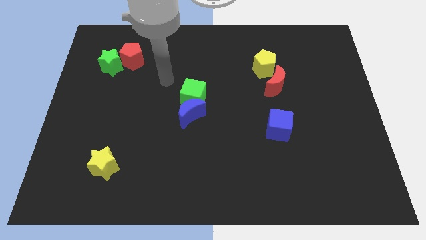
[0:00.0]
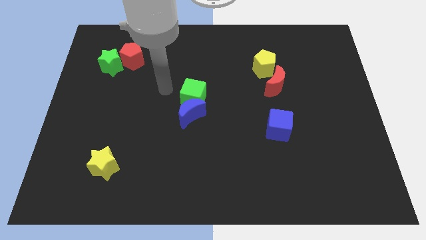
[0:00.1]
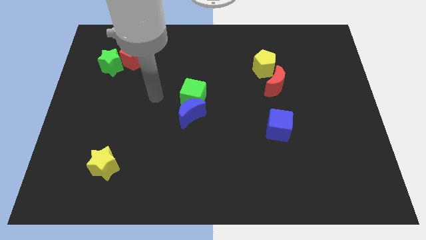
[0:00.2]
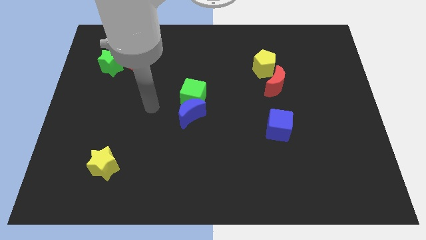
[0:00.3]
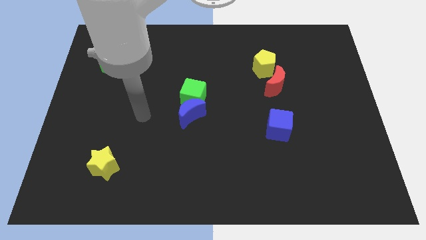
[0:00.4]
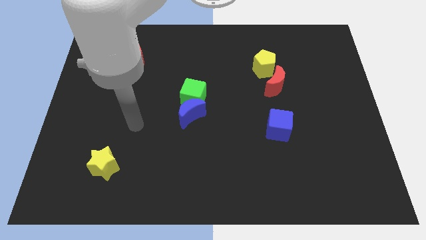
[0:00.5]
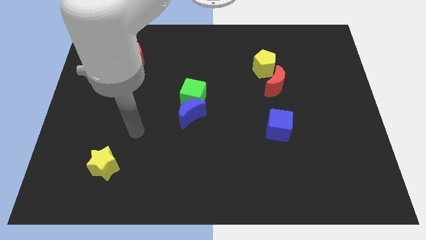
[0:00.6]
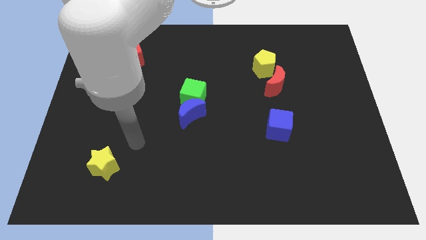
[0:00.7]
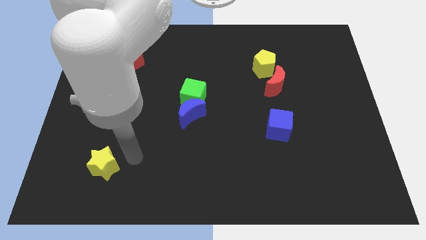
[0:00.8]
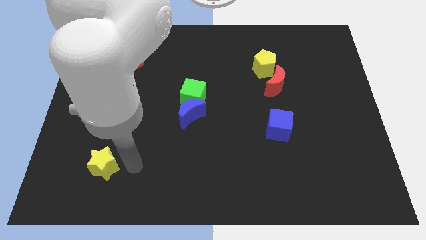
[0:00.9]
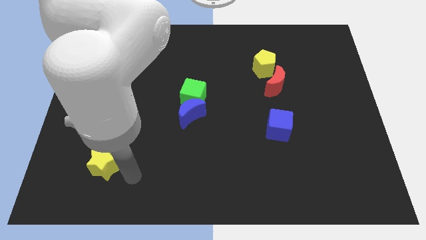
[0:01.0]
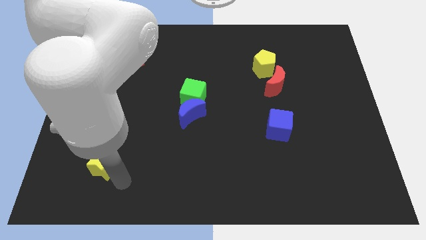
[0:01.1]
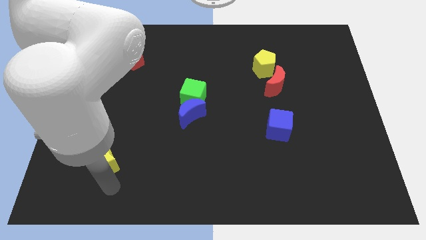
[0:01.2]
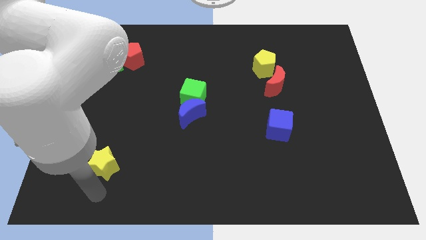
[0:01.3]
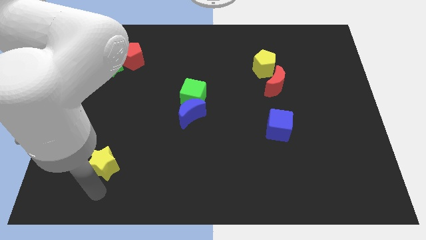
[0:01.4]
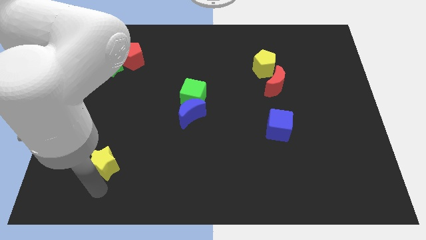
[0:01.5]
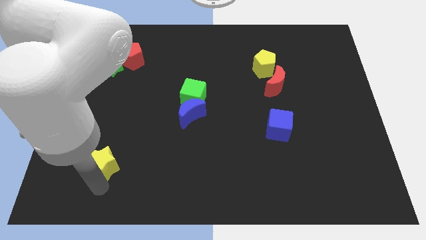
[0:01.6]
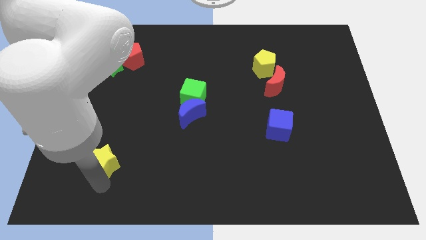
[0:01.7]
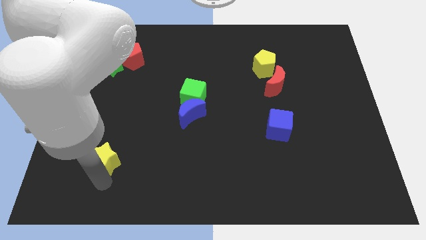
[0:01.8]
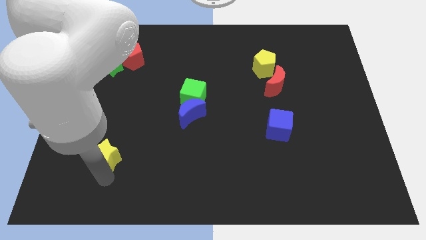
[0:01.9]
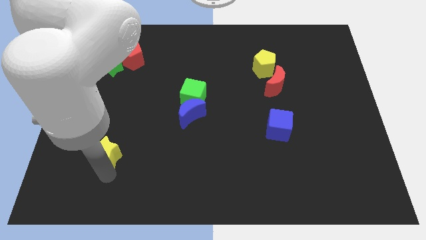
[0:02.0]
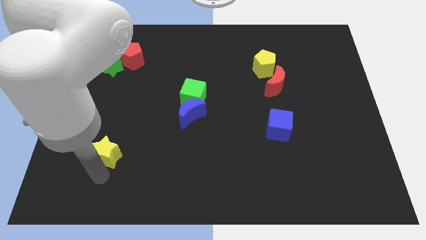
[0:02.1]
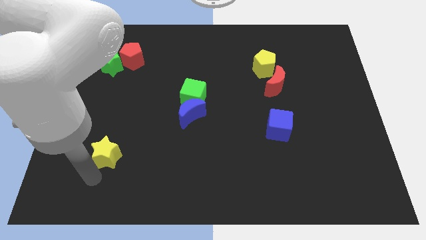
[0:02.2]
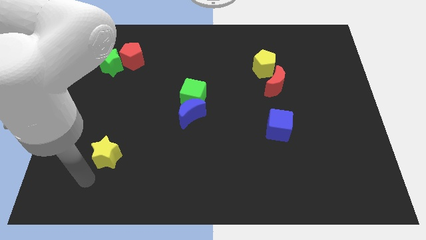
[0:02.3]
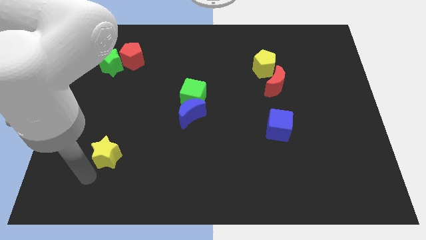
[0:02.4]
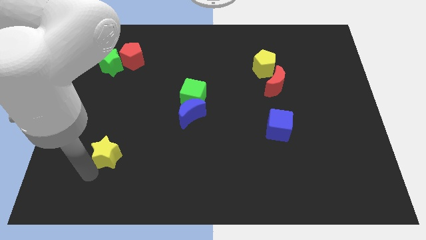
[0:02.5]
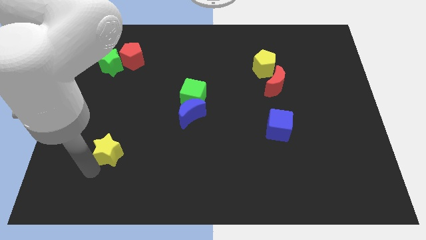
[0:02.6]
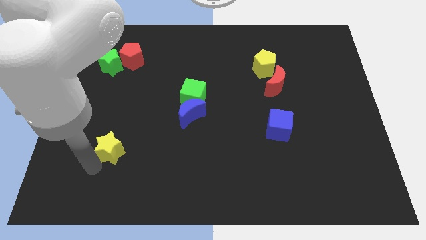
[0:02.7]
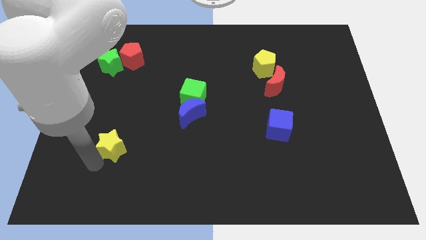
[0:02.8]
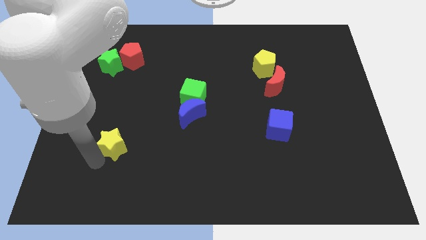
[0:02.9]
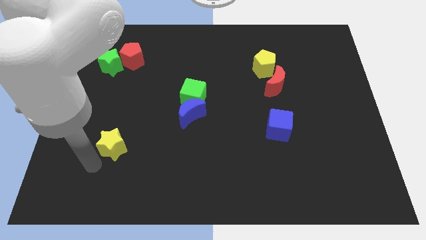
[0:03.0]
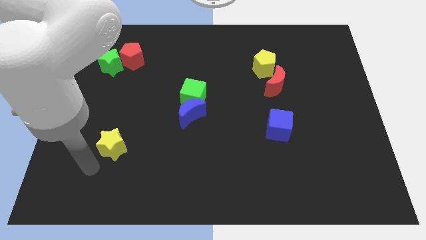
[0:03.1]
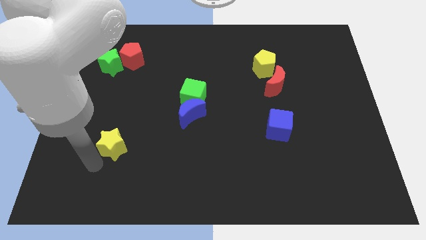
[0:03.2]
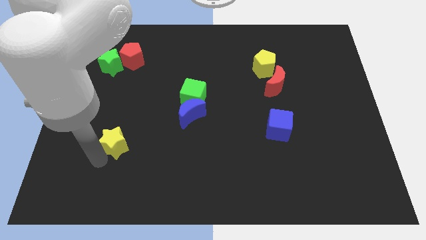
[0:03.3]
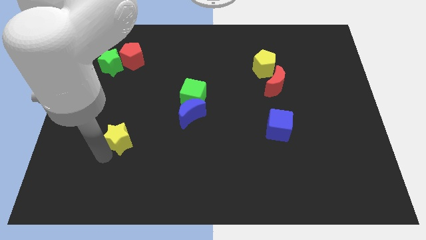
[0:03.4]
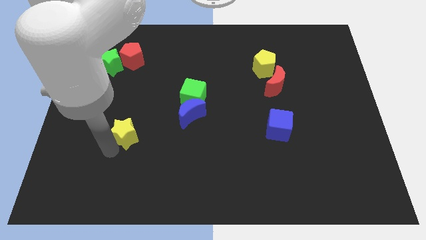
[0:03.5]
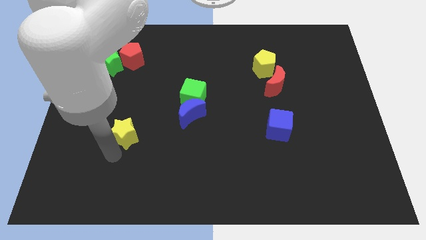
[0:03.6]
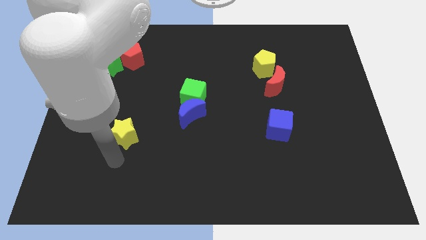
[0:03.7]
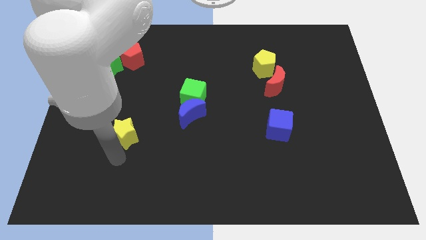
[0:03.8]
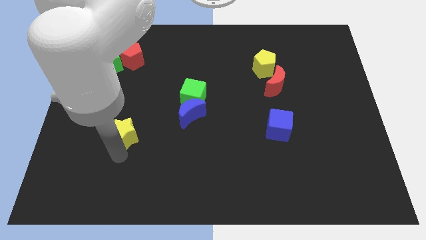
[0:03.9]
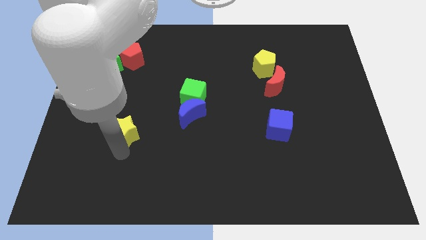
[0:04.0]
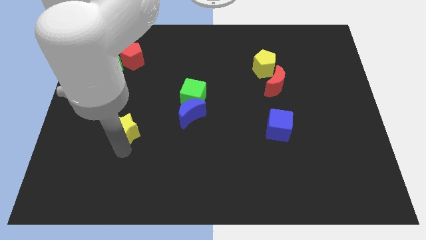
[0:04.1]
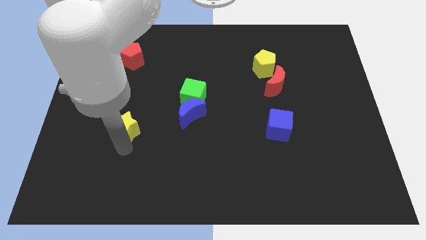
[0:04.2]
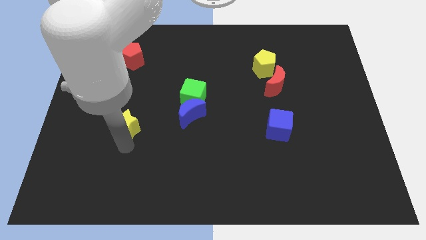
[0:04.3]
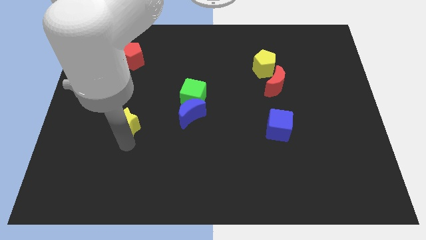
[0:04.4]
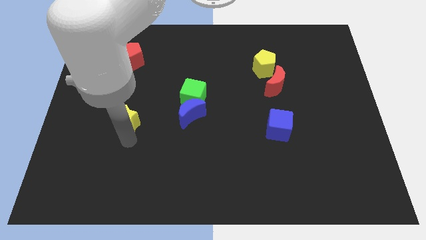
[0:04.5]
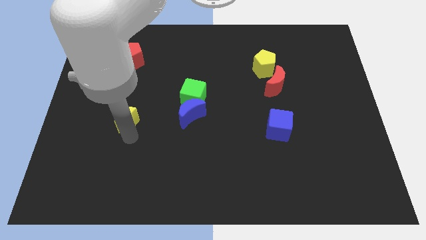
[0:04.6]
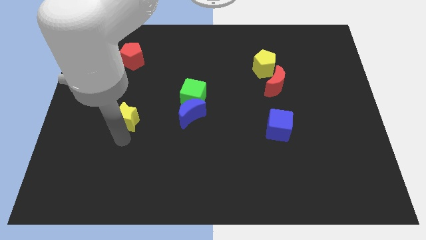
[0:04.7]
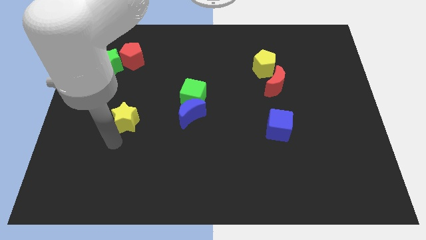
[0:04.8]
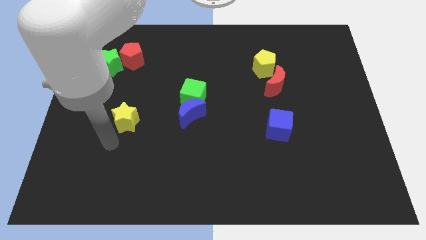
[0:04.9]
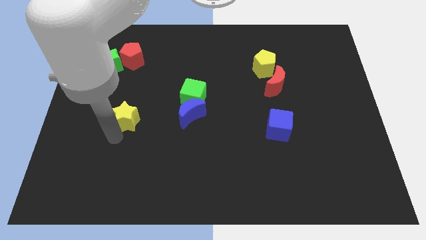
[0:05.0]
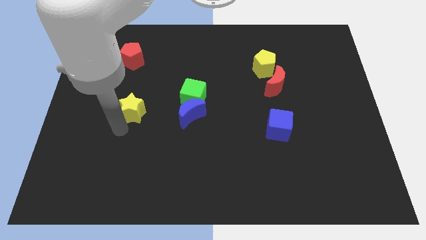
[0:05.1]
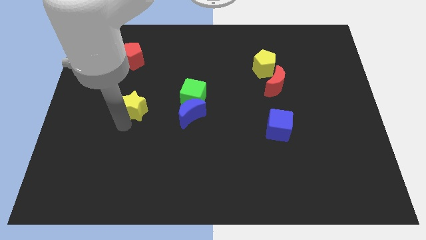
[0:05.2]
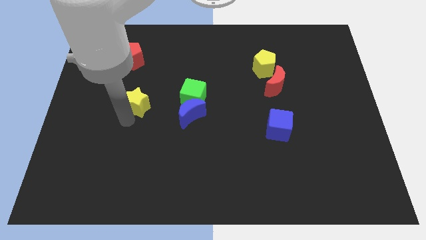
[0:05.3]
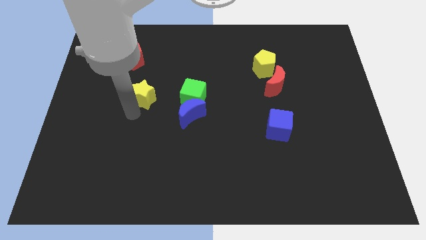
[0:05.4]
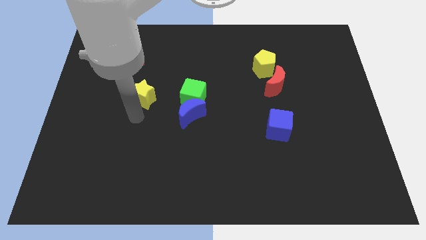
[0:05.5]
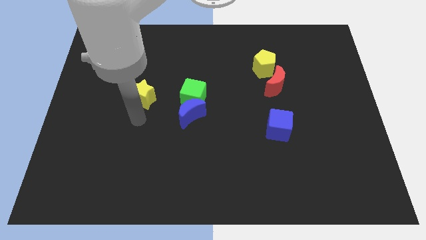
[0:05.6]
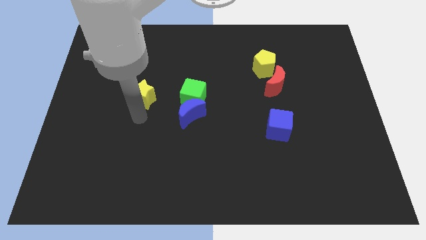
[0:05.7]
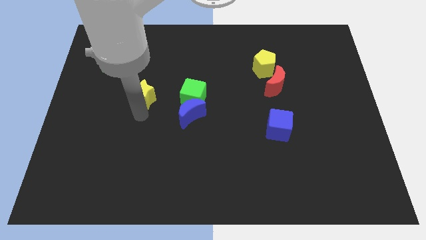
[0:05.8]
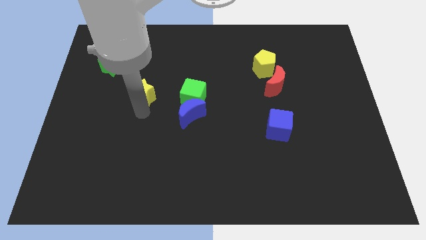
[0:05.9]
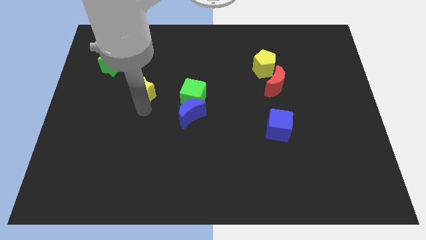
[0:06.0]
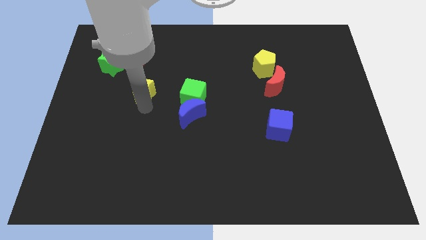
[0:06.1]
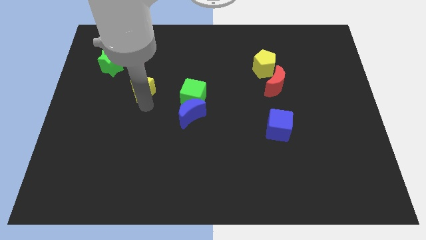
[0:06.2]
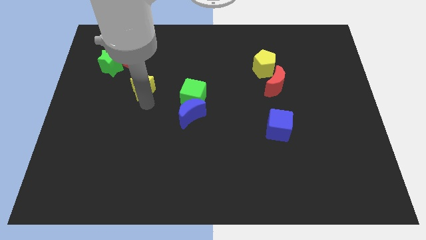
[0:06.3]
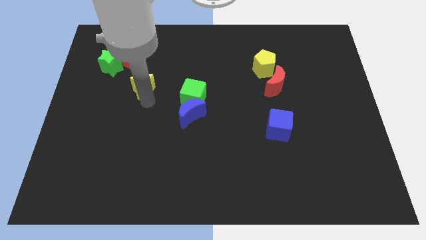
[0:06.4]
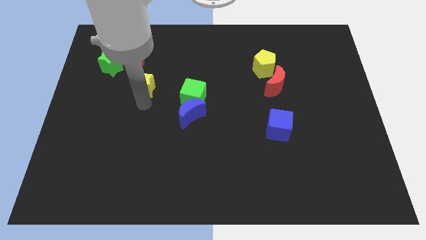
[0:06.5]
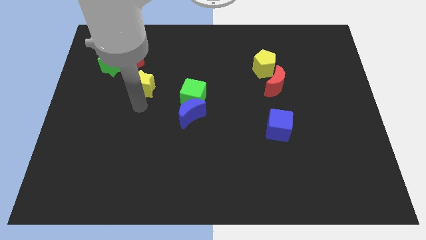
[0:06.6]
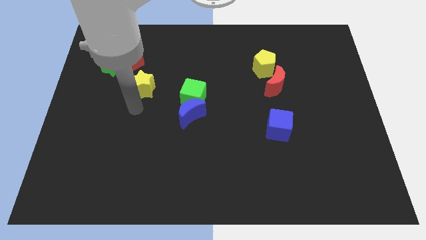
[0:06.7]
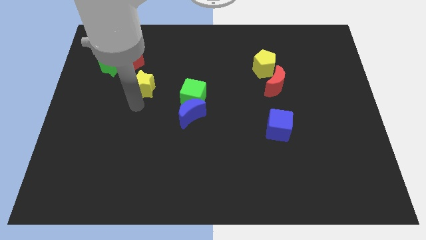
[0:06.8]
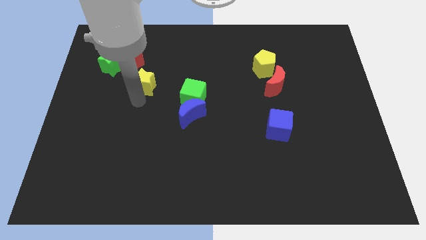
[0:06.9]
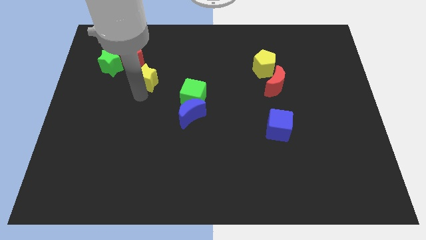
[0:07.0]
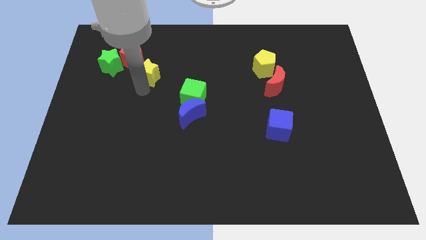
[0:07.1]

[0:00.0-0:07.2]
slide the yellow star just right of the green star

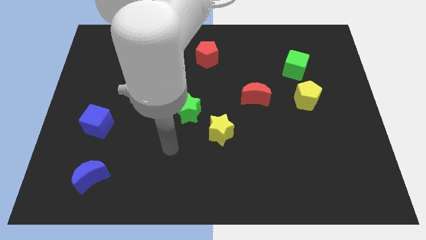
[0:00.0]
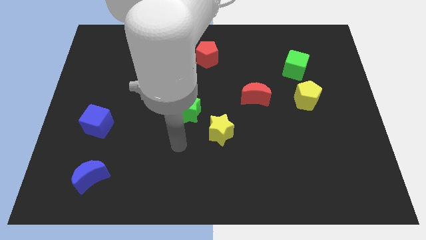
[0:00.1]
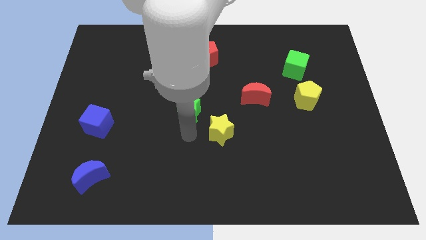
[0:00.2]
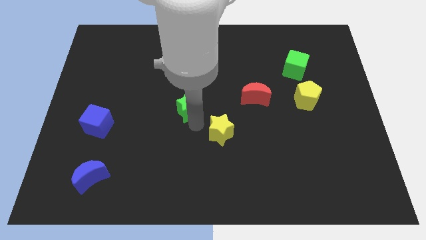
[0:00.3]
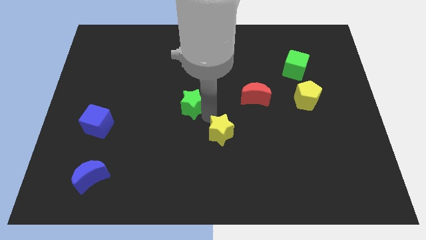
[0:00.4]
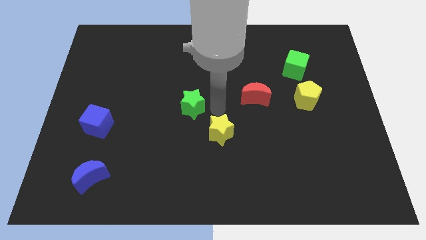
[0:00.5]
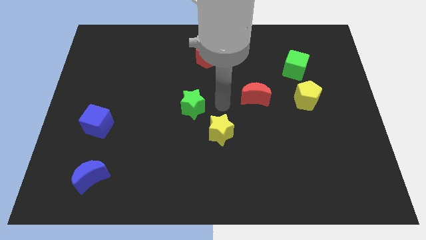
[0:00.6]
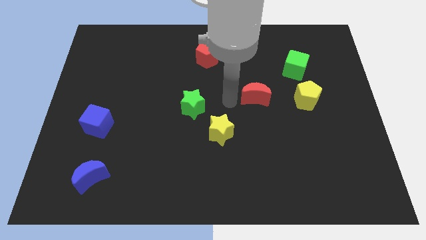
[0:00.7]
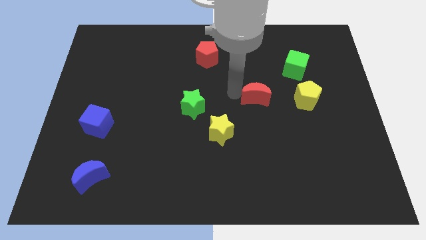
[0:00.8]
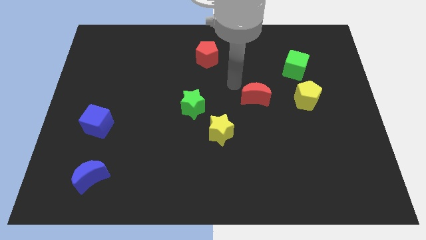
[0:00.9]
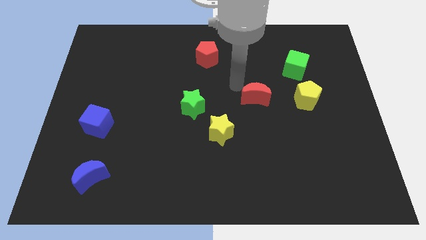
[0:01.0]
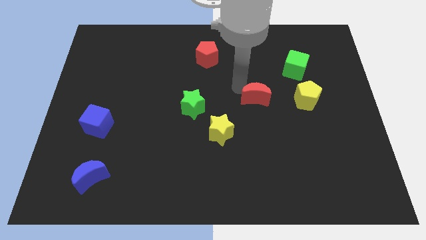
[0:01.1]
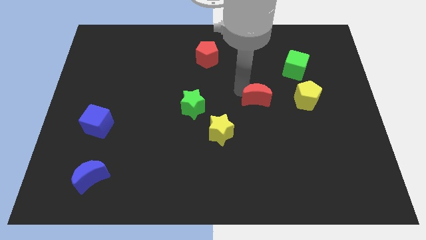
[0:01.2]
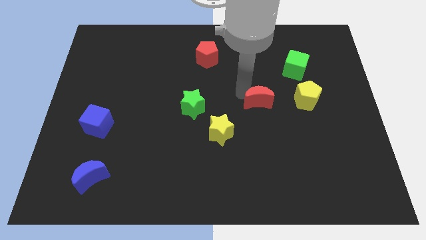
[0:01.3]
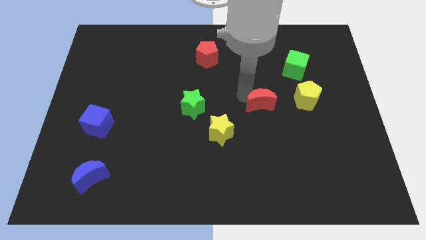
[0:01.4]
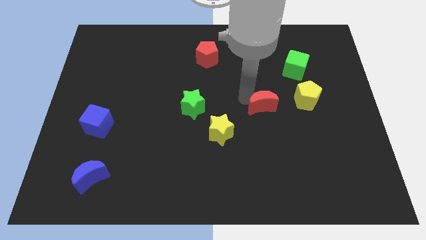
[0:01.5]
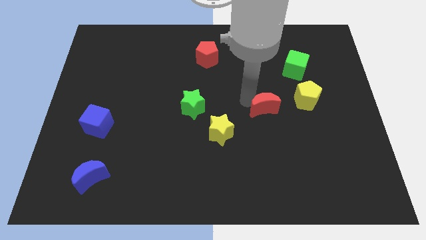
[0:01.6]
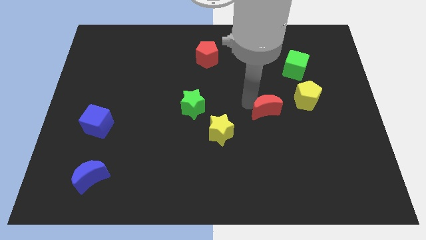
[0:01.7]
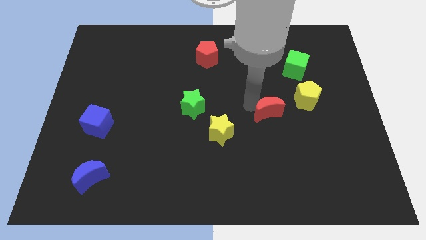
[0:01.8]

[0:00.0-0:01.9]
put the red moon diagonally down and to the left of the yellow pentagon
